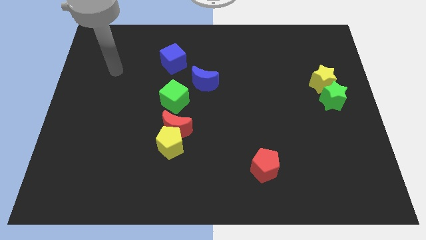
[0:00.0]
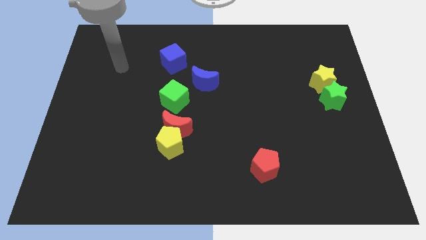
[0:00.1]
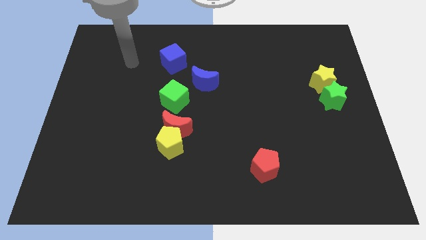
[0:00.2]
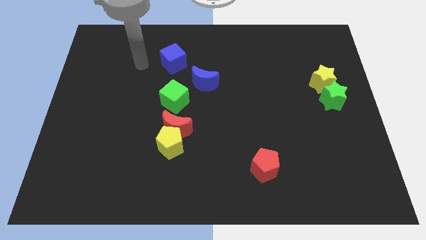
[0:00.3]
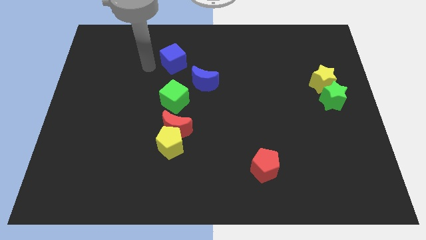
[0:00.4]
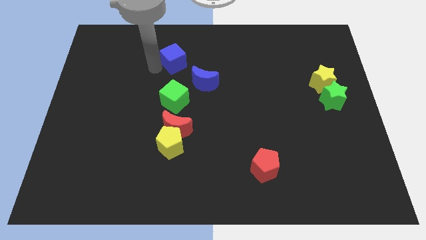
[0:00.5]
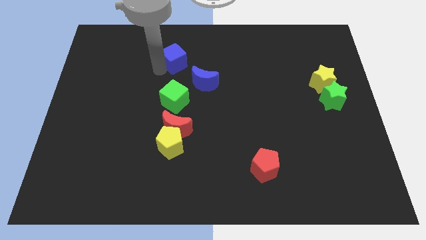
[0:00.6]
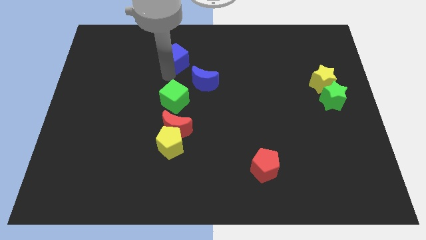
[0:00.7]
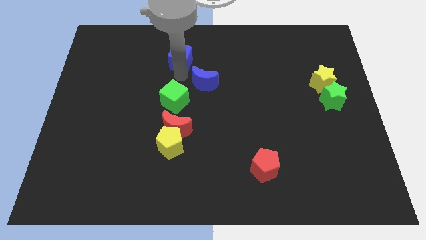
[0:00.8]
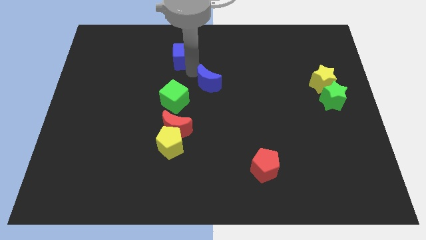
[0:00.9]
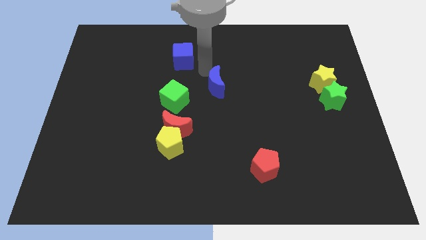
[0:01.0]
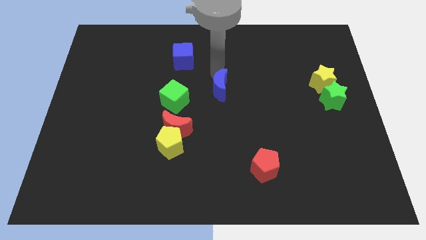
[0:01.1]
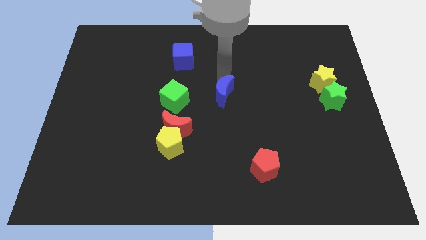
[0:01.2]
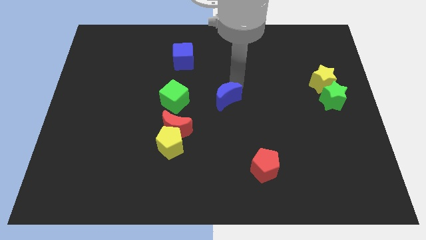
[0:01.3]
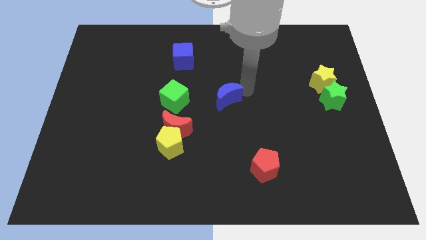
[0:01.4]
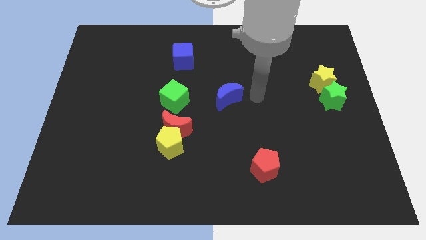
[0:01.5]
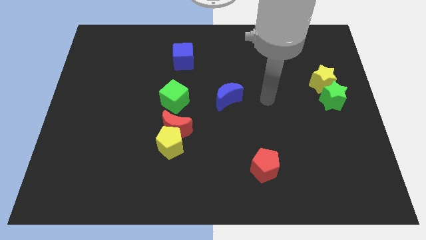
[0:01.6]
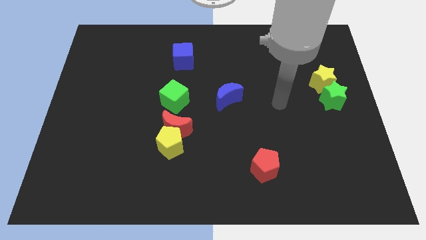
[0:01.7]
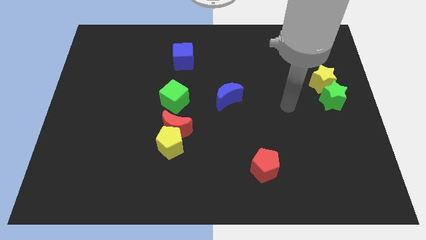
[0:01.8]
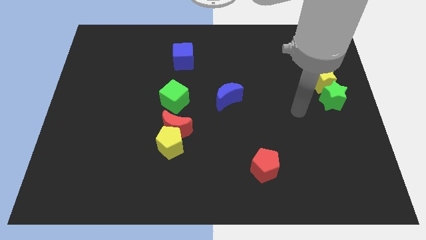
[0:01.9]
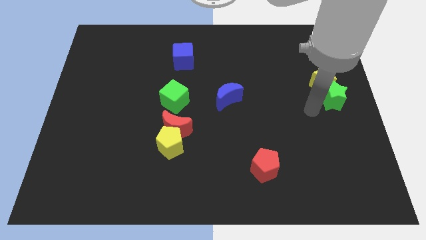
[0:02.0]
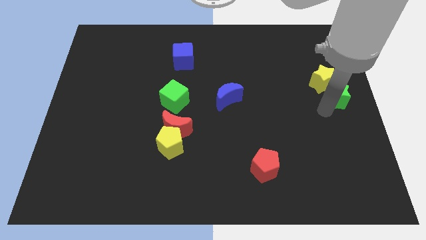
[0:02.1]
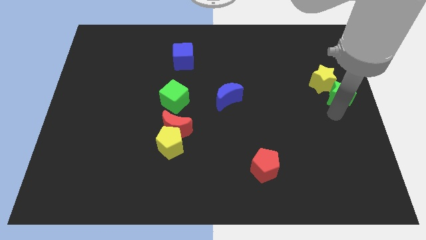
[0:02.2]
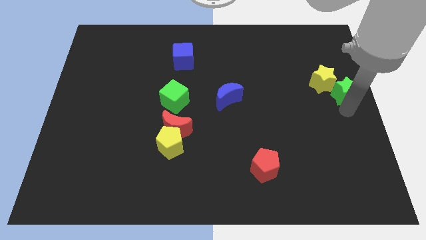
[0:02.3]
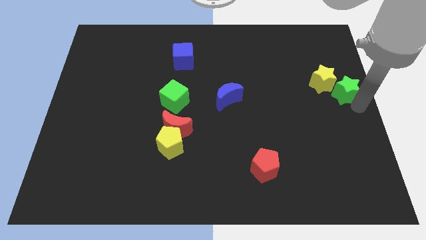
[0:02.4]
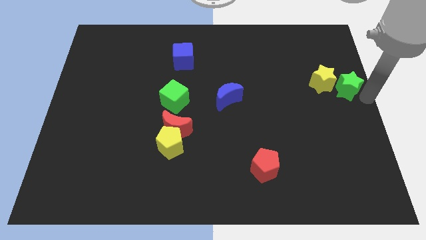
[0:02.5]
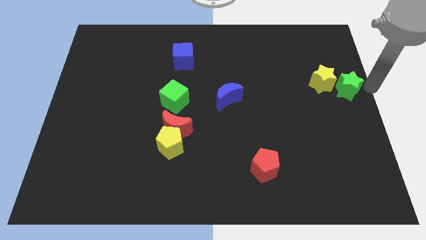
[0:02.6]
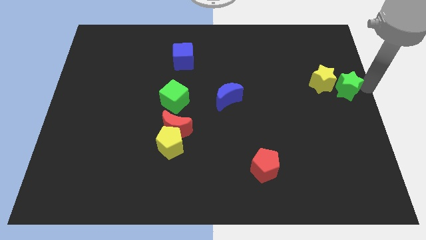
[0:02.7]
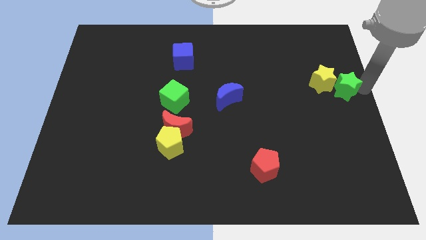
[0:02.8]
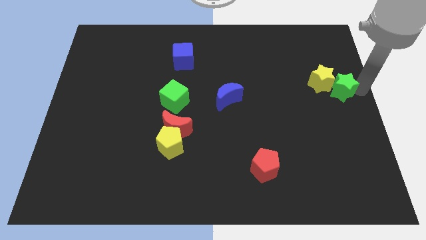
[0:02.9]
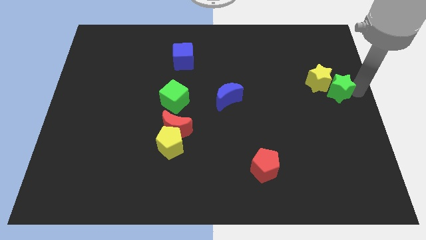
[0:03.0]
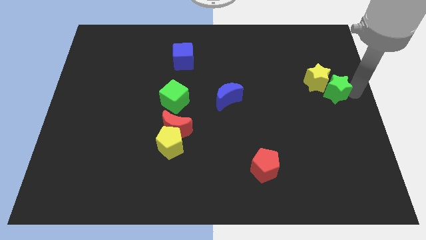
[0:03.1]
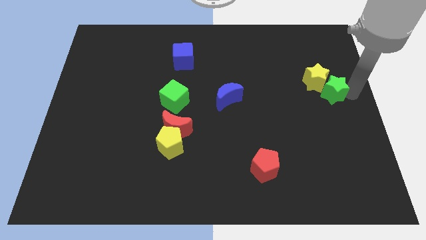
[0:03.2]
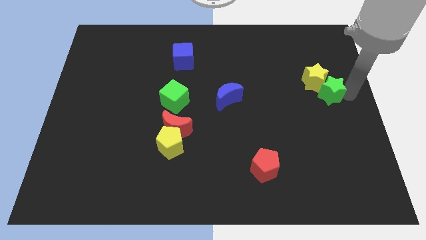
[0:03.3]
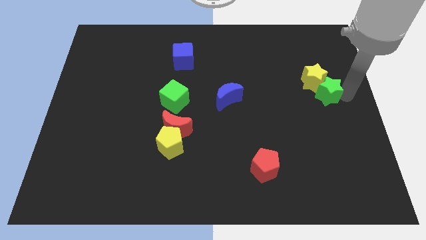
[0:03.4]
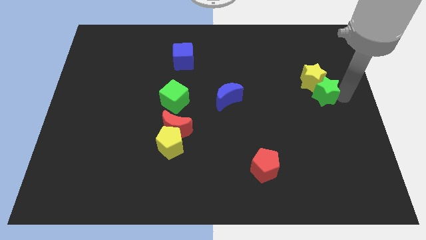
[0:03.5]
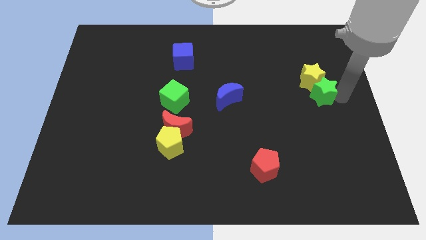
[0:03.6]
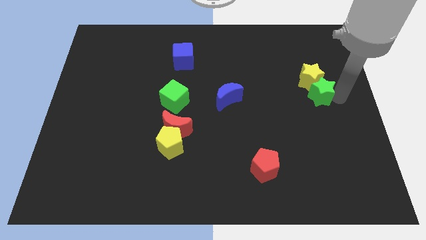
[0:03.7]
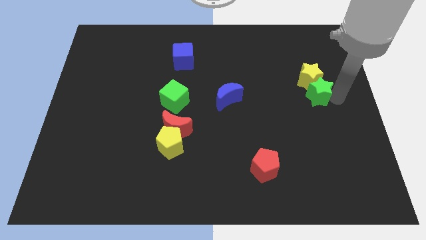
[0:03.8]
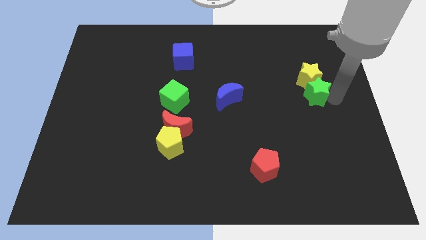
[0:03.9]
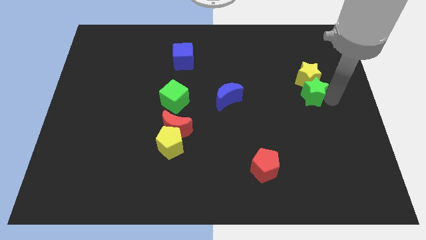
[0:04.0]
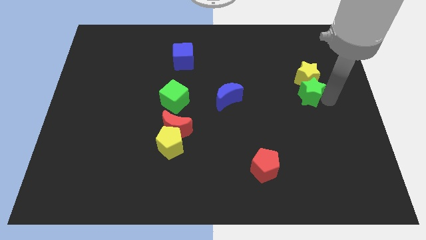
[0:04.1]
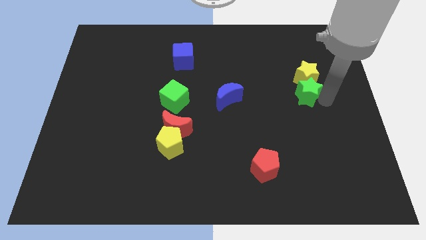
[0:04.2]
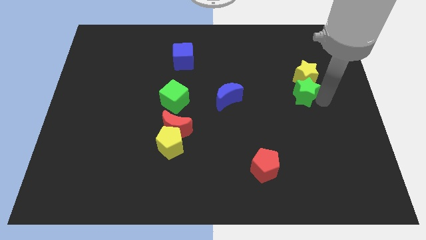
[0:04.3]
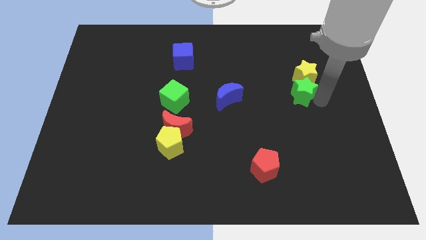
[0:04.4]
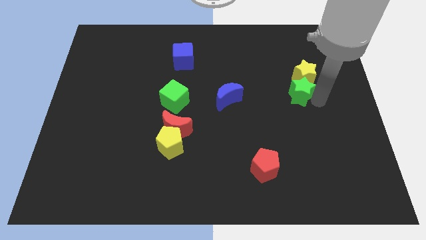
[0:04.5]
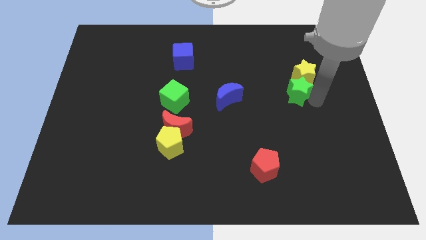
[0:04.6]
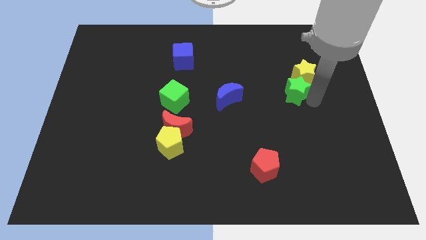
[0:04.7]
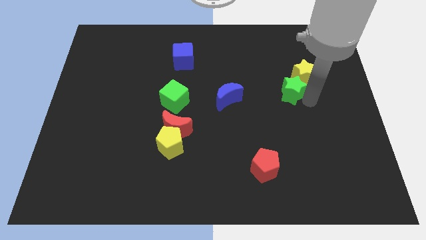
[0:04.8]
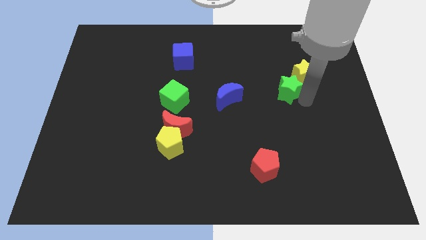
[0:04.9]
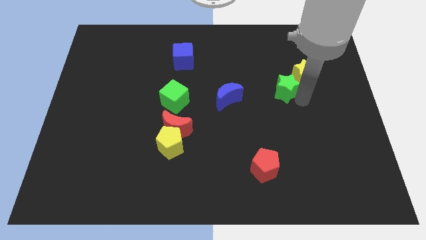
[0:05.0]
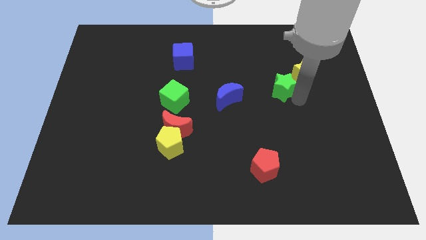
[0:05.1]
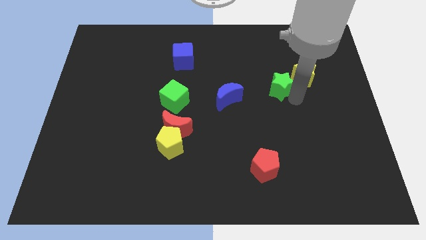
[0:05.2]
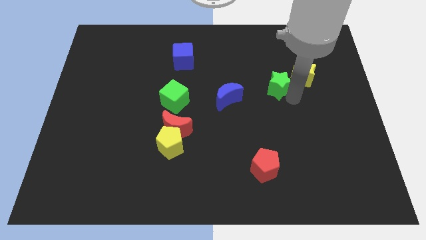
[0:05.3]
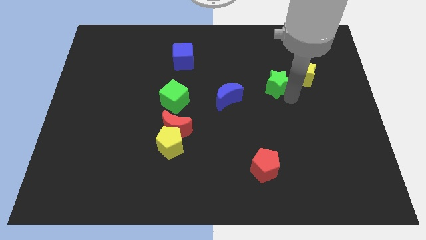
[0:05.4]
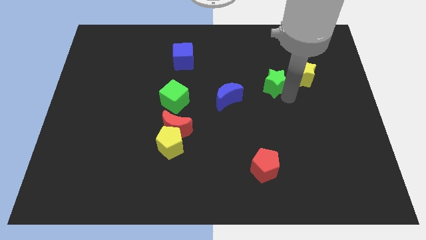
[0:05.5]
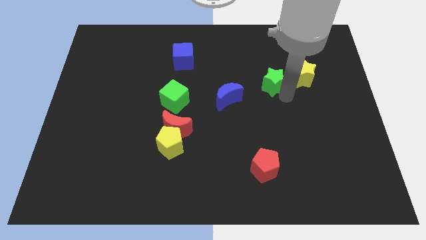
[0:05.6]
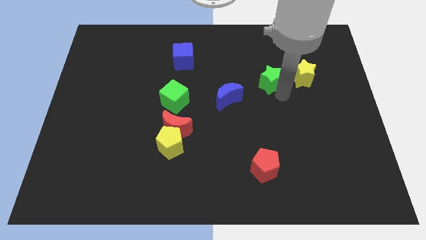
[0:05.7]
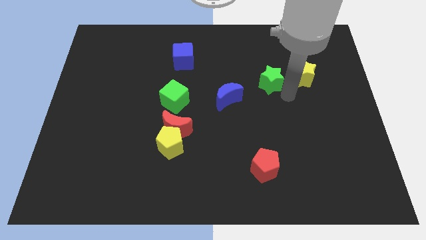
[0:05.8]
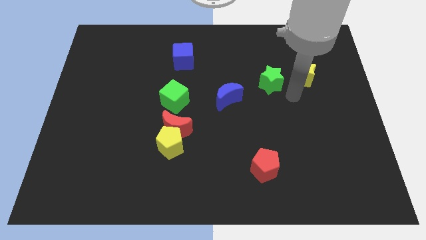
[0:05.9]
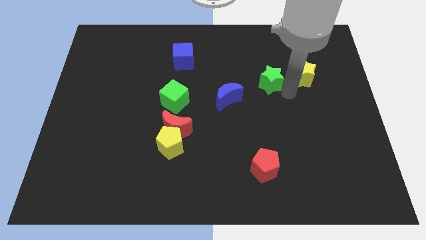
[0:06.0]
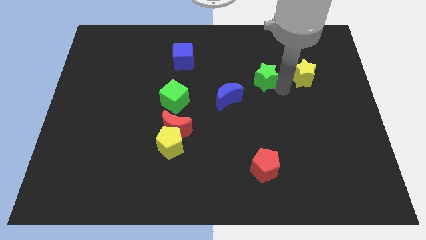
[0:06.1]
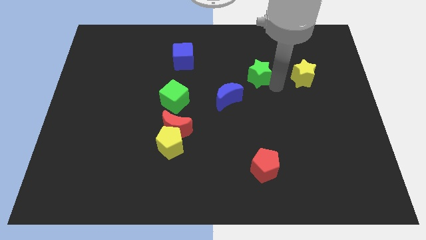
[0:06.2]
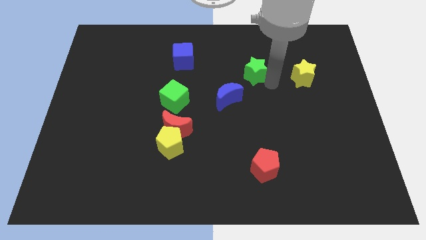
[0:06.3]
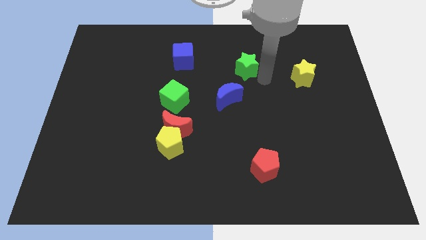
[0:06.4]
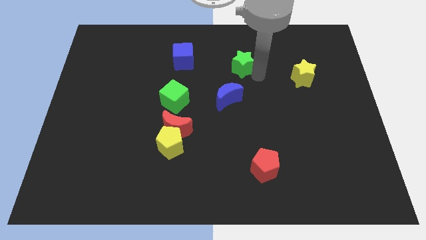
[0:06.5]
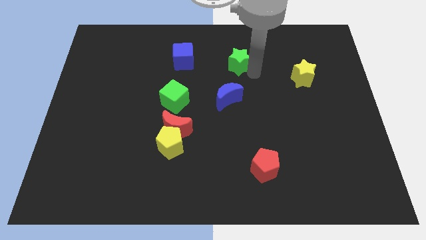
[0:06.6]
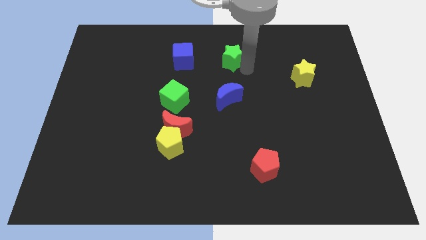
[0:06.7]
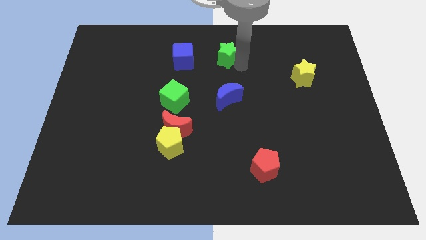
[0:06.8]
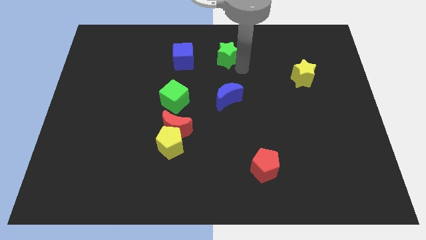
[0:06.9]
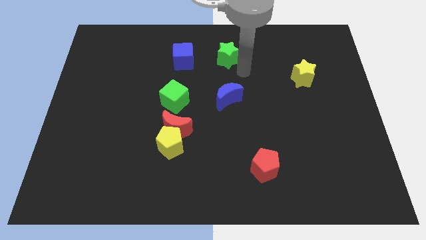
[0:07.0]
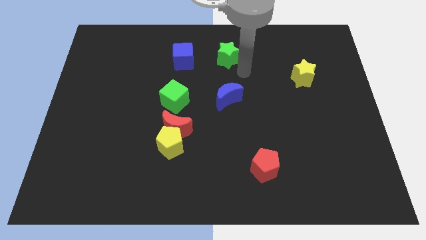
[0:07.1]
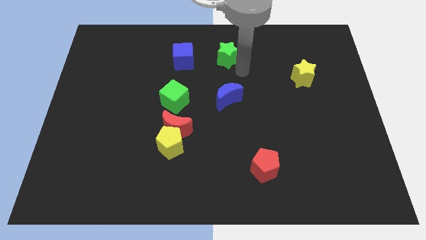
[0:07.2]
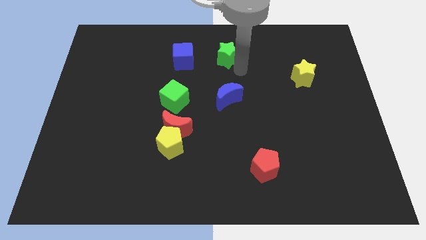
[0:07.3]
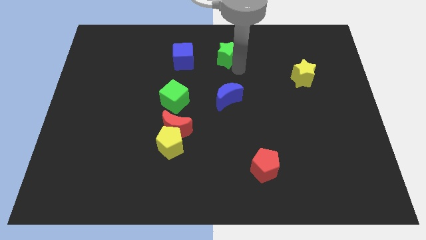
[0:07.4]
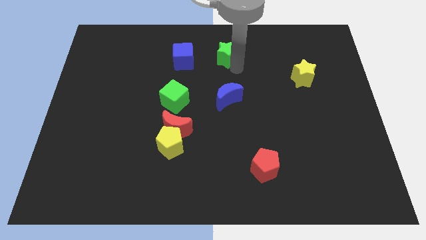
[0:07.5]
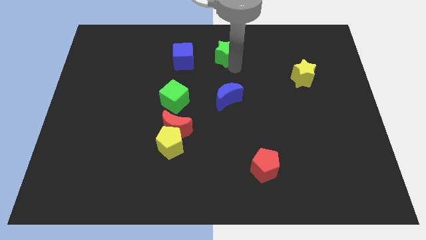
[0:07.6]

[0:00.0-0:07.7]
slide the green star to the top
